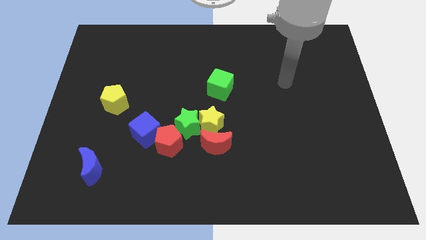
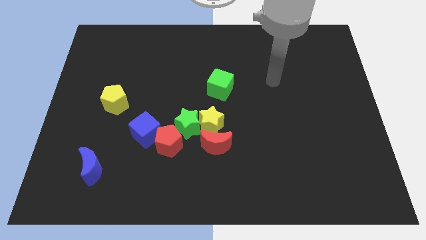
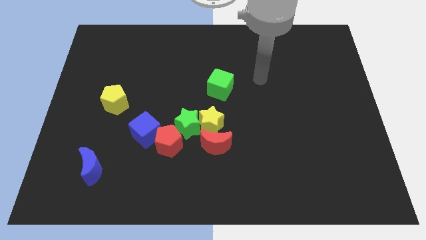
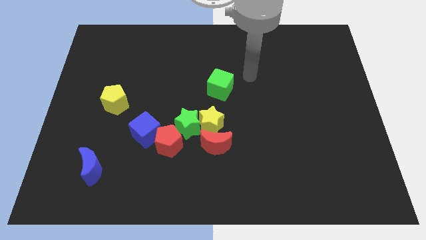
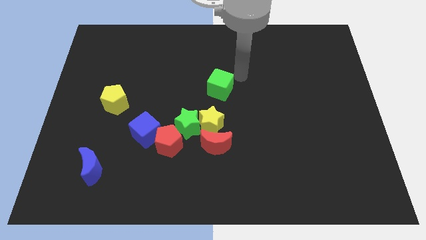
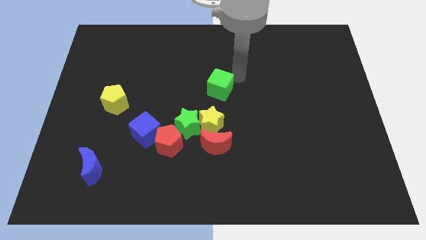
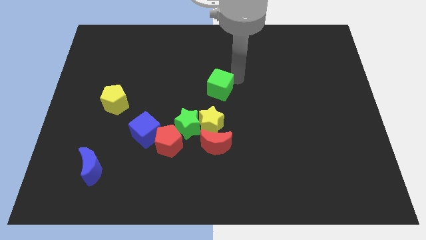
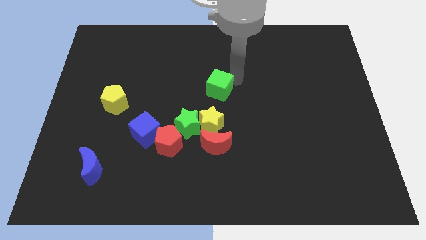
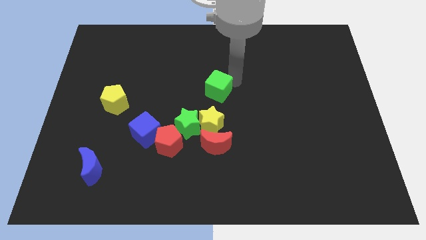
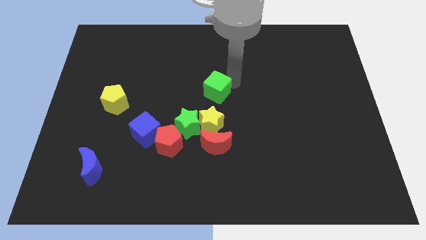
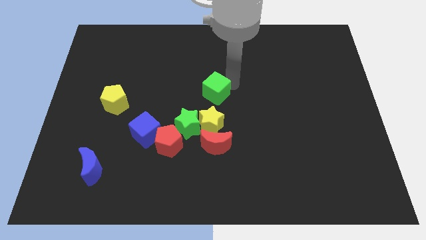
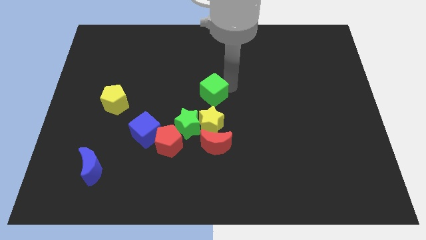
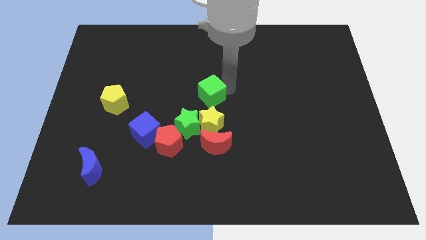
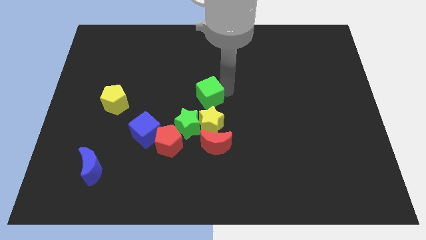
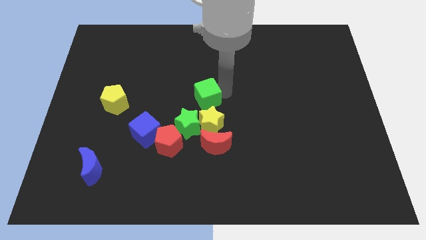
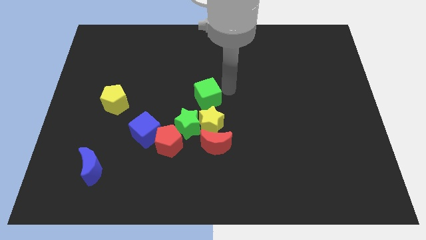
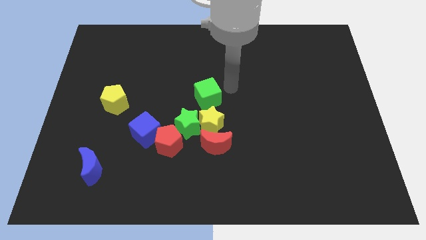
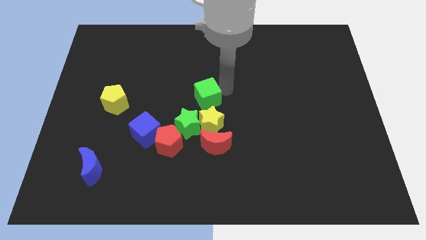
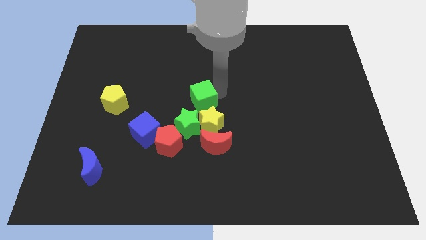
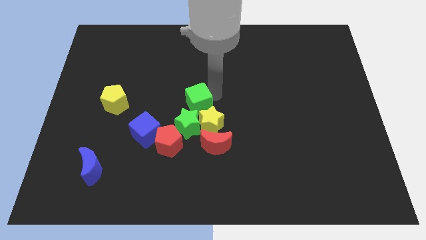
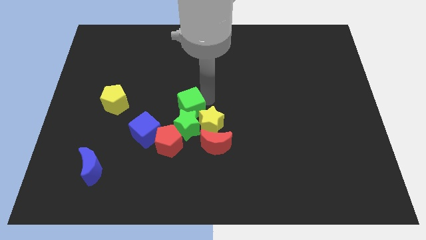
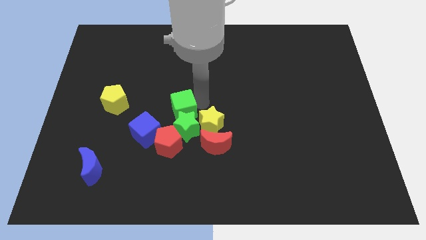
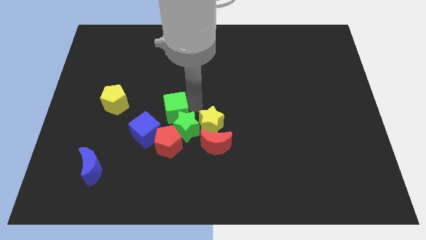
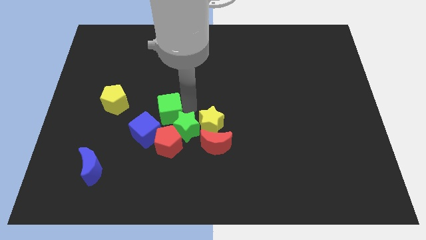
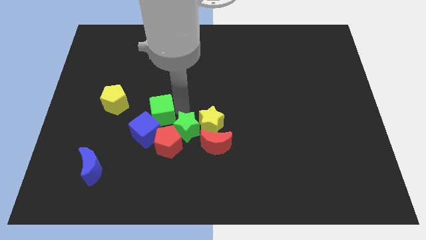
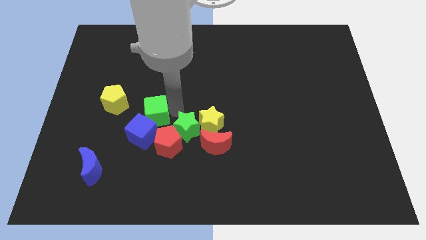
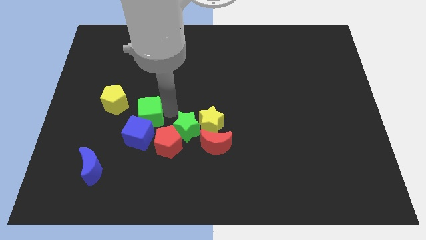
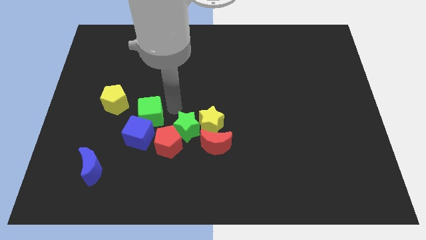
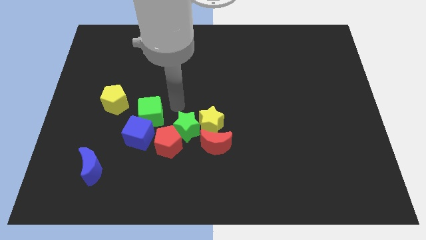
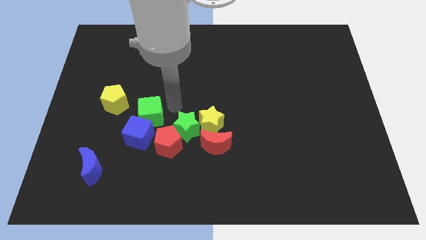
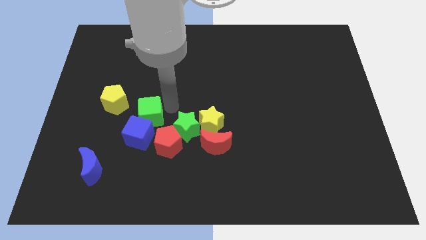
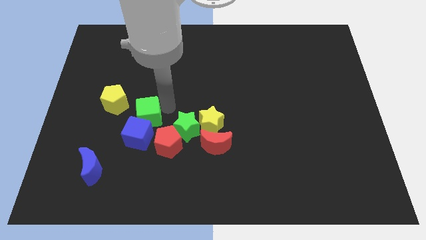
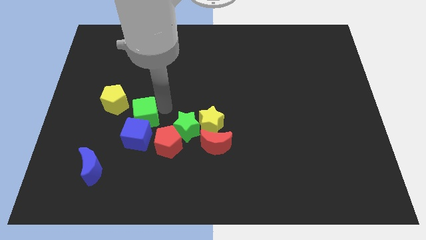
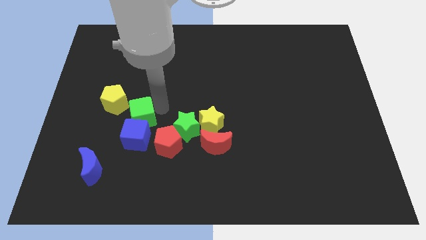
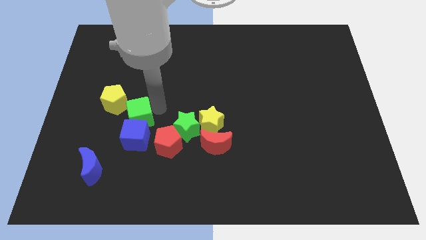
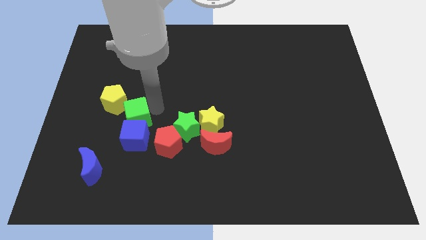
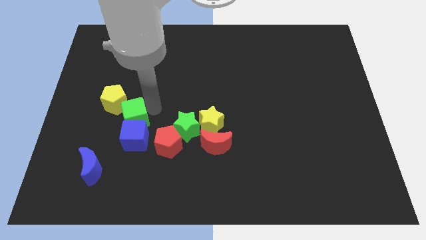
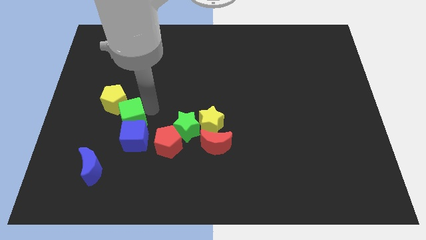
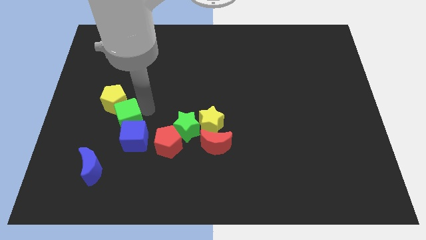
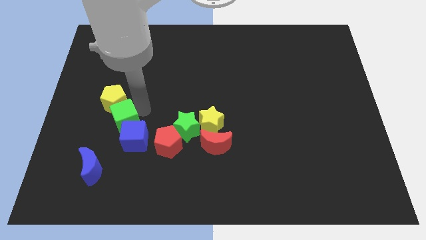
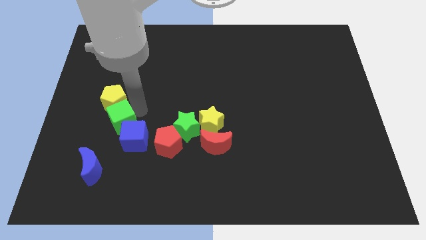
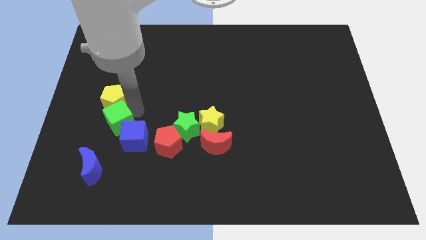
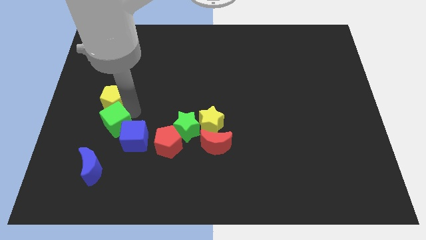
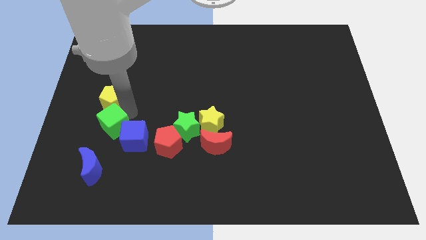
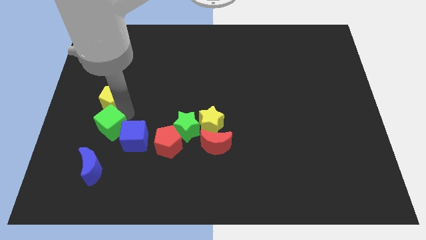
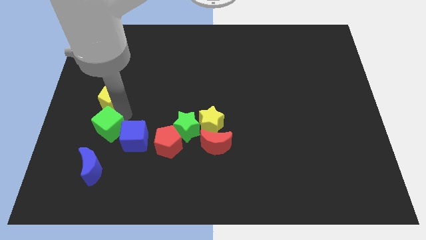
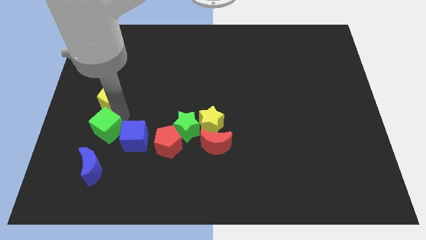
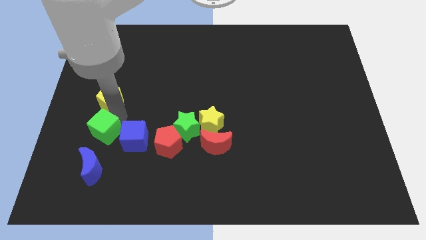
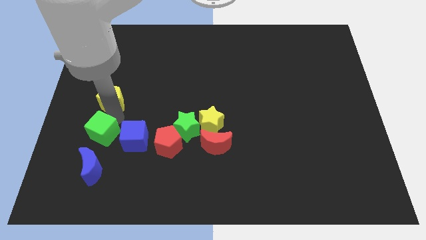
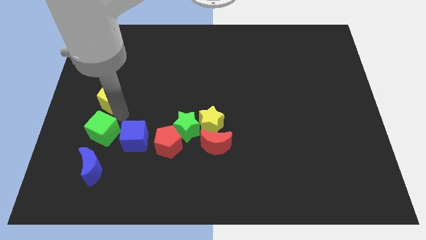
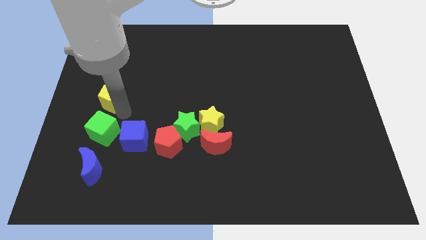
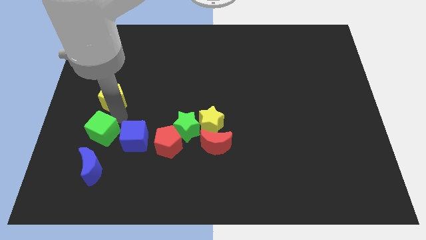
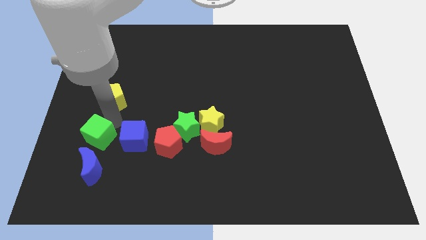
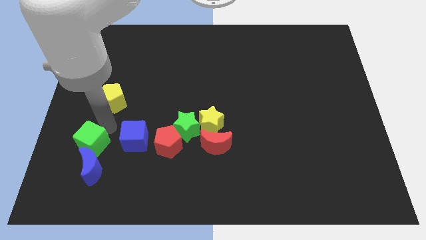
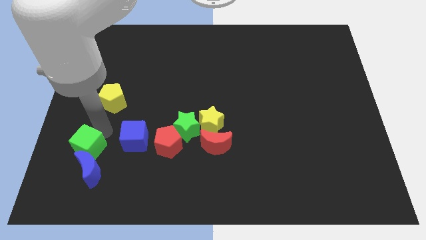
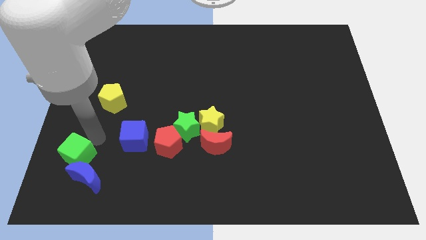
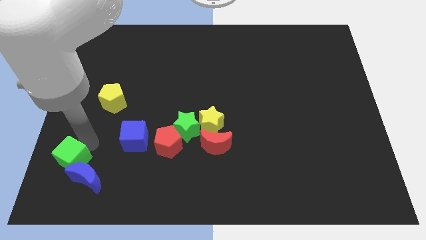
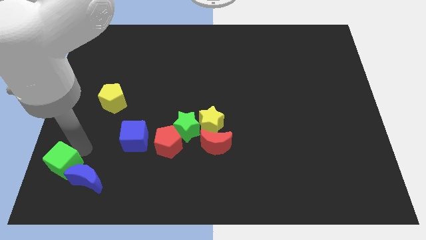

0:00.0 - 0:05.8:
push the green cube to the bottom left of the board
